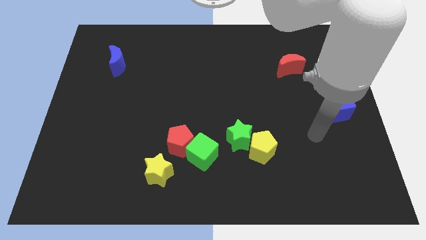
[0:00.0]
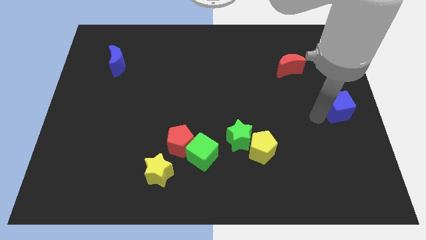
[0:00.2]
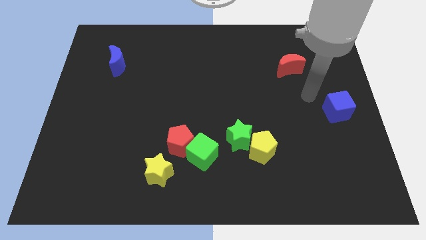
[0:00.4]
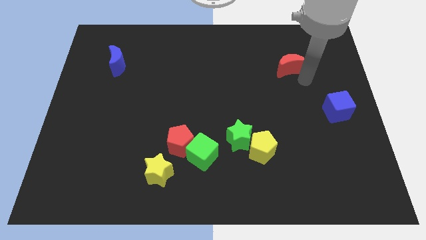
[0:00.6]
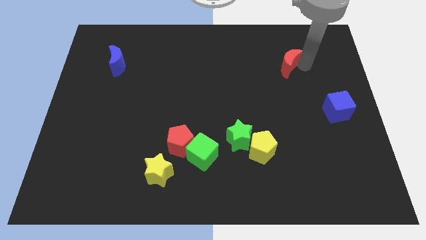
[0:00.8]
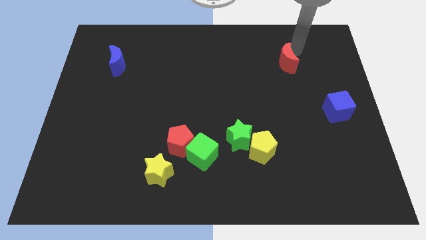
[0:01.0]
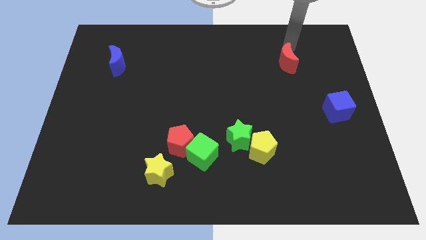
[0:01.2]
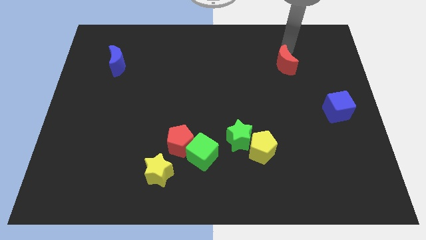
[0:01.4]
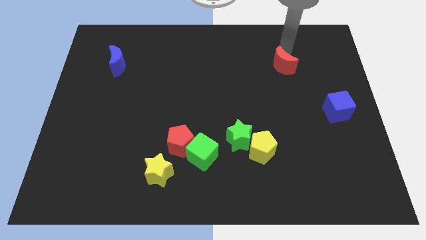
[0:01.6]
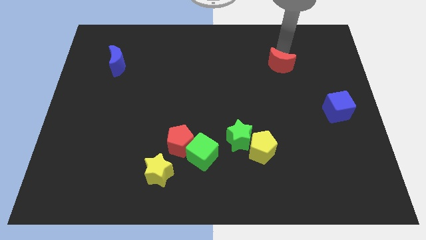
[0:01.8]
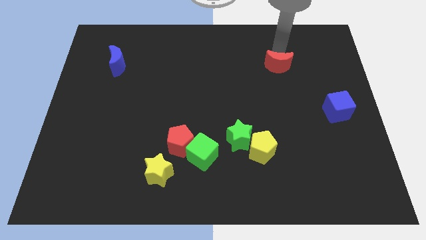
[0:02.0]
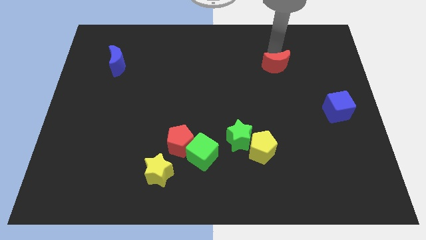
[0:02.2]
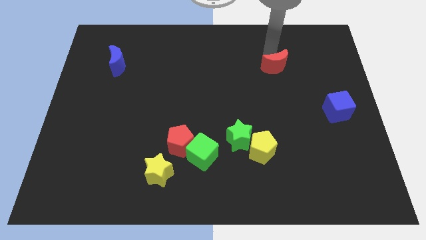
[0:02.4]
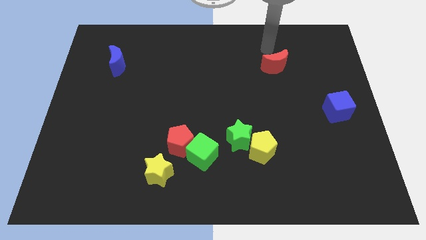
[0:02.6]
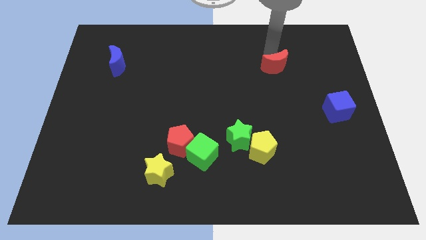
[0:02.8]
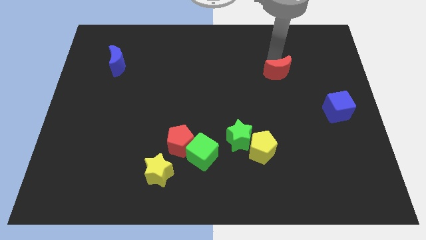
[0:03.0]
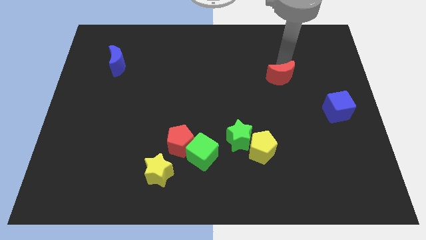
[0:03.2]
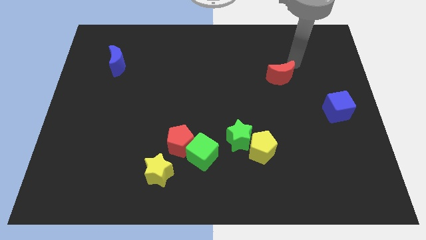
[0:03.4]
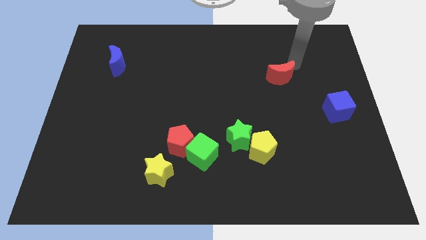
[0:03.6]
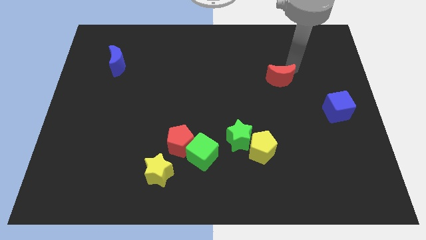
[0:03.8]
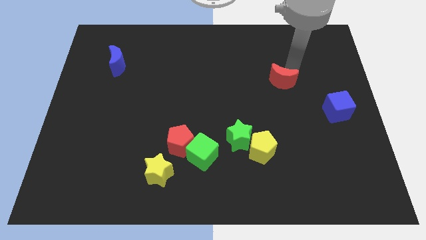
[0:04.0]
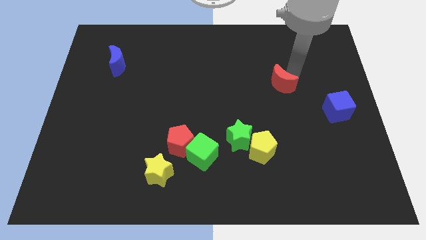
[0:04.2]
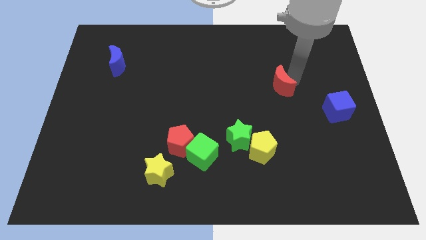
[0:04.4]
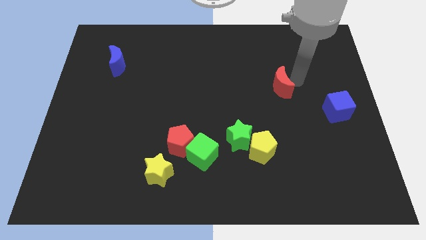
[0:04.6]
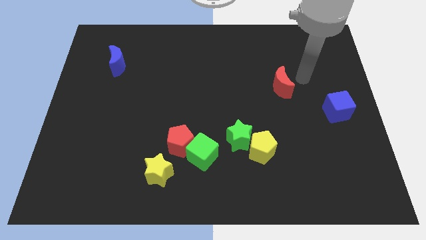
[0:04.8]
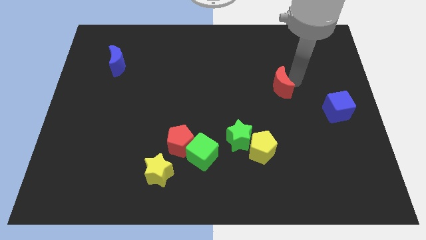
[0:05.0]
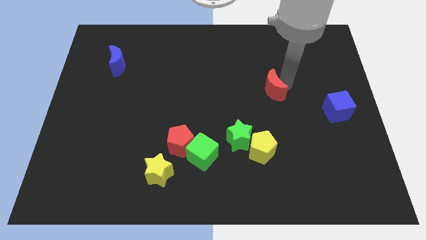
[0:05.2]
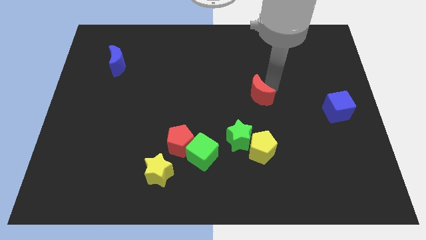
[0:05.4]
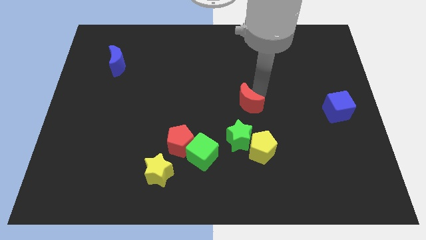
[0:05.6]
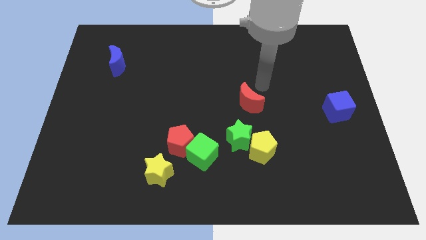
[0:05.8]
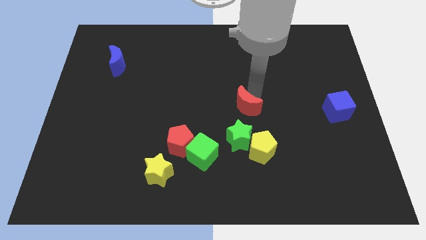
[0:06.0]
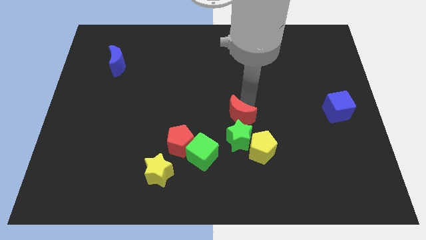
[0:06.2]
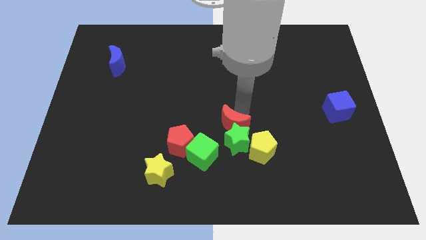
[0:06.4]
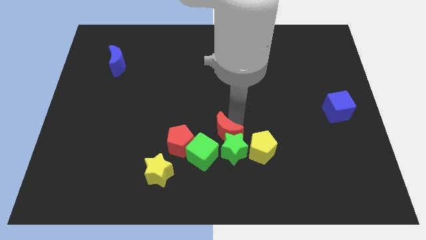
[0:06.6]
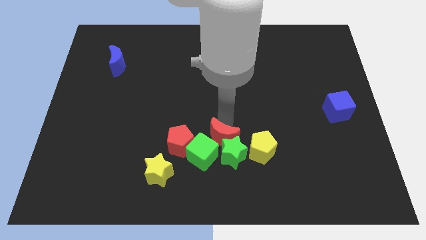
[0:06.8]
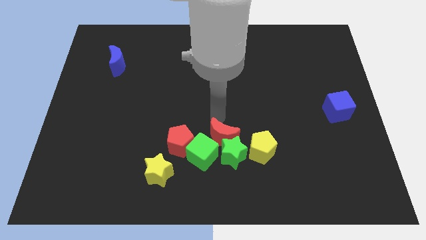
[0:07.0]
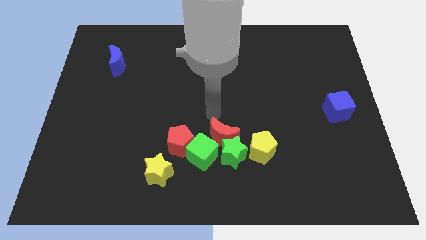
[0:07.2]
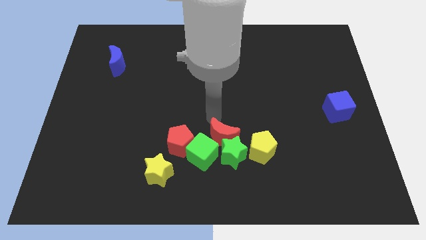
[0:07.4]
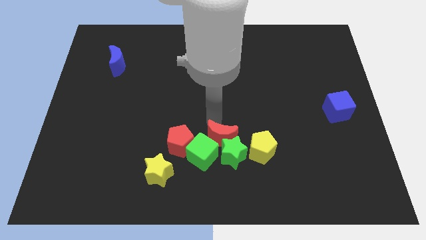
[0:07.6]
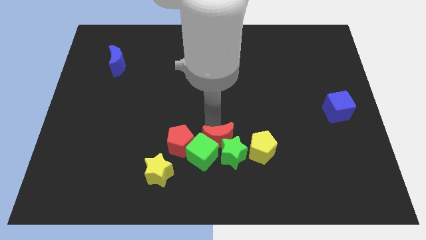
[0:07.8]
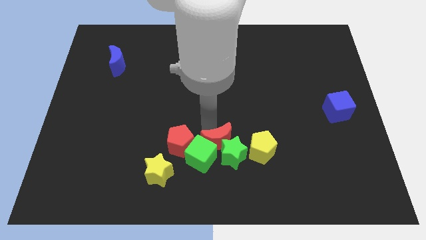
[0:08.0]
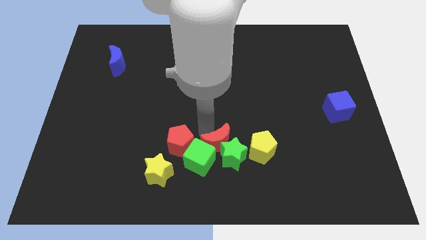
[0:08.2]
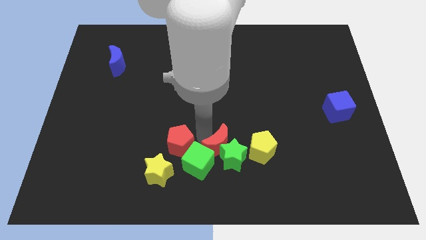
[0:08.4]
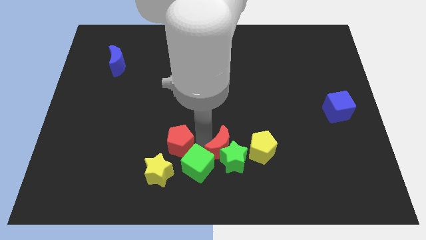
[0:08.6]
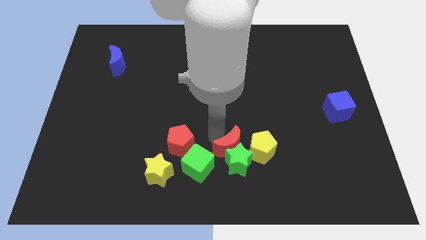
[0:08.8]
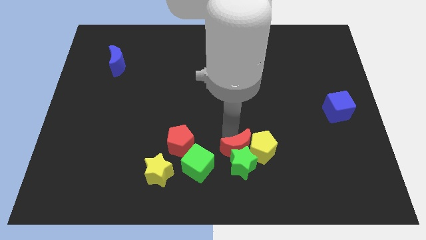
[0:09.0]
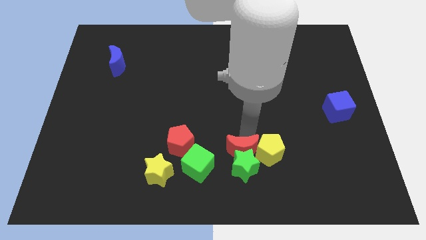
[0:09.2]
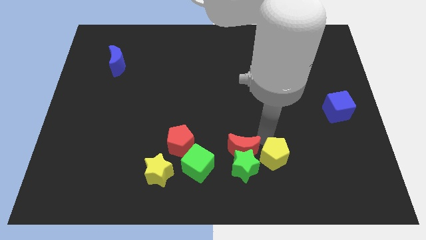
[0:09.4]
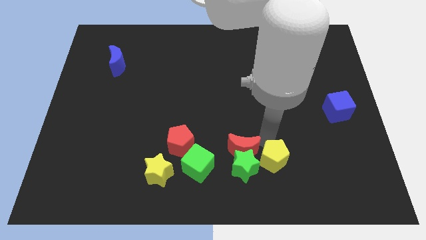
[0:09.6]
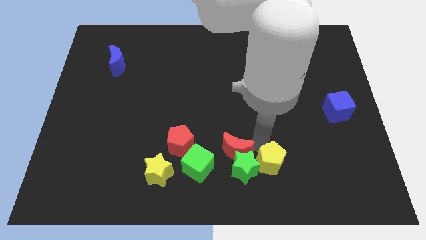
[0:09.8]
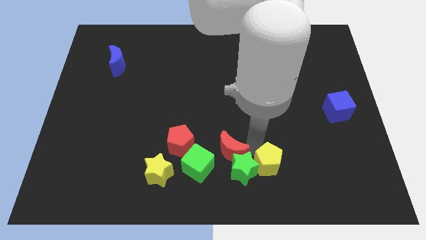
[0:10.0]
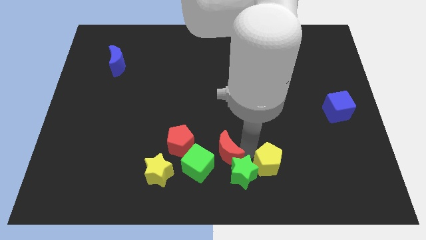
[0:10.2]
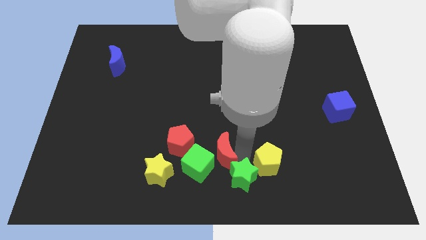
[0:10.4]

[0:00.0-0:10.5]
slide the red moon to the bottom right side of the red pentagon

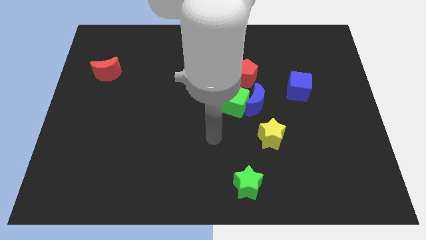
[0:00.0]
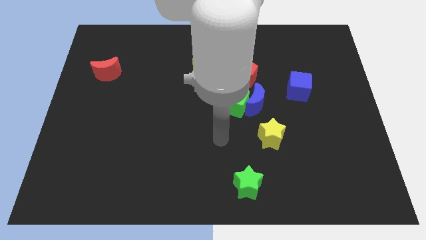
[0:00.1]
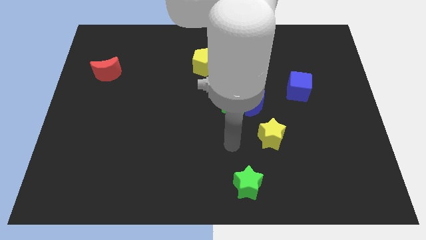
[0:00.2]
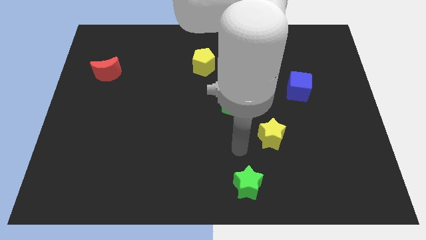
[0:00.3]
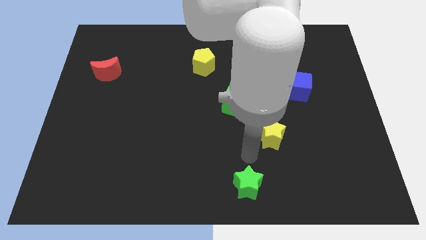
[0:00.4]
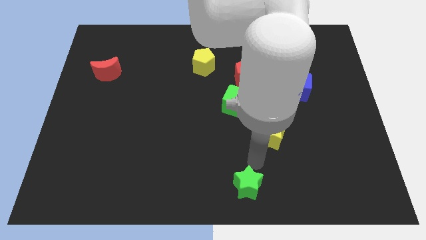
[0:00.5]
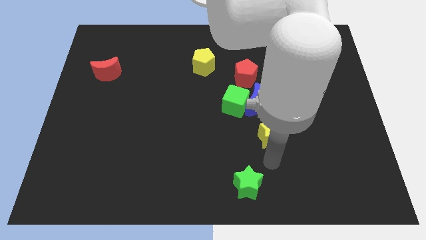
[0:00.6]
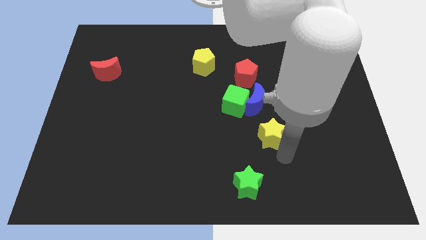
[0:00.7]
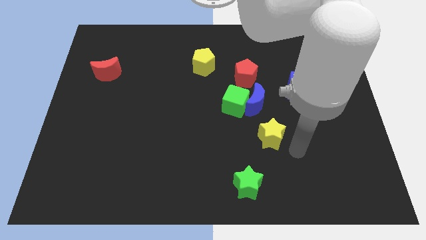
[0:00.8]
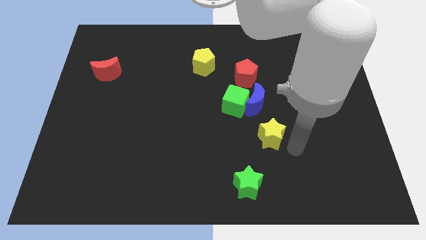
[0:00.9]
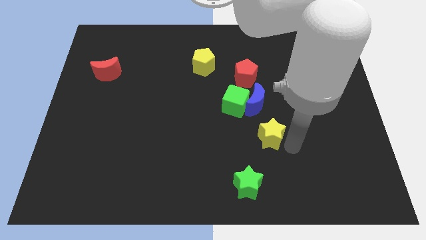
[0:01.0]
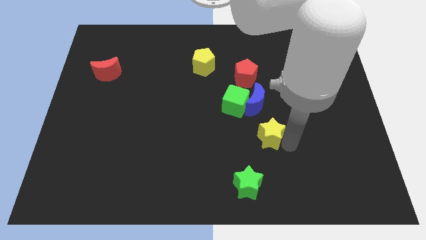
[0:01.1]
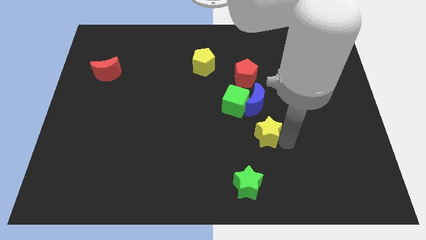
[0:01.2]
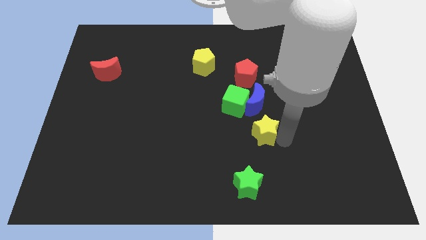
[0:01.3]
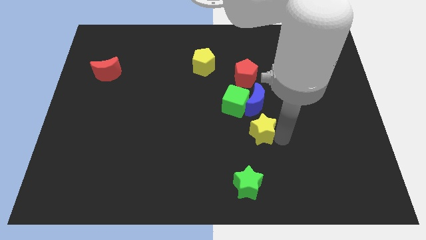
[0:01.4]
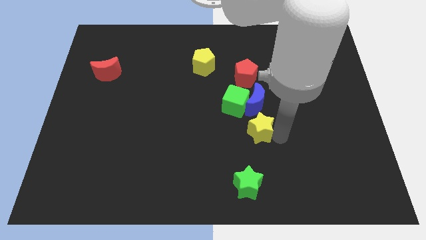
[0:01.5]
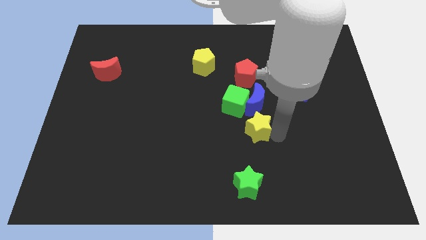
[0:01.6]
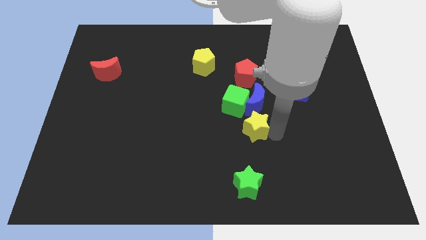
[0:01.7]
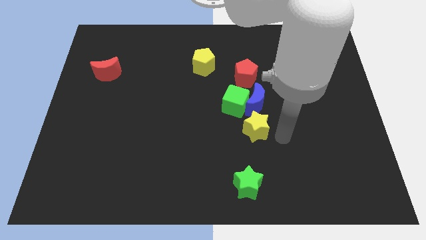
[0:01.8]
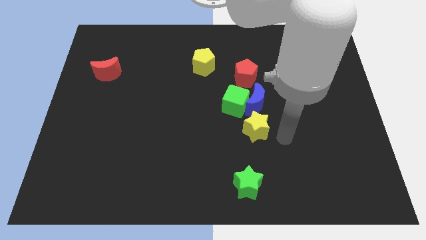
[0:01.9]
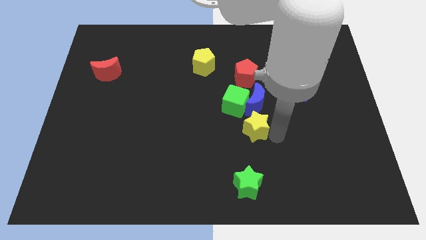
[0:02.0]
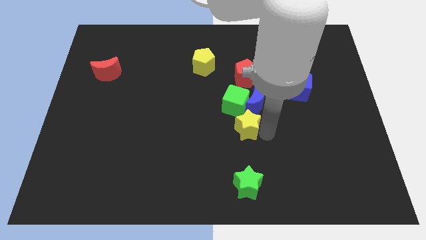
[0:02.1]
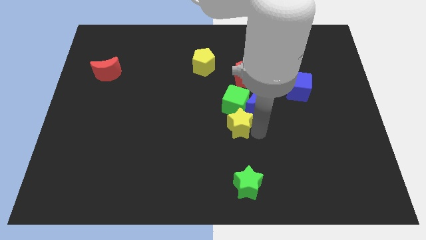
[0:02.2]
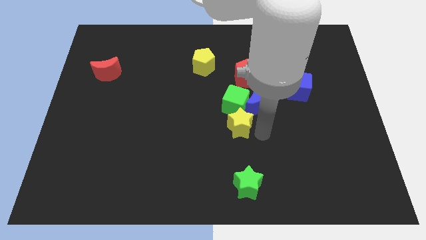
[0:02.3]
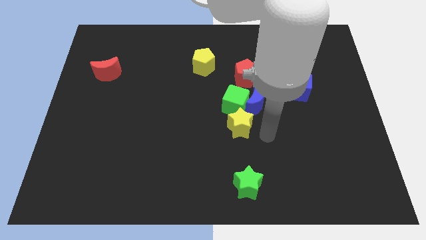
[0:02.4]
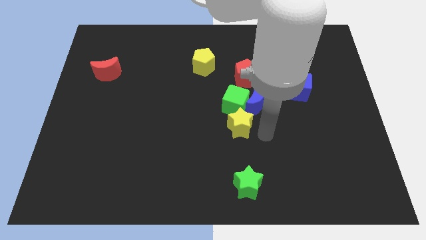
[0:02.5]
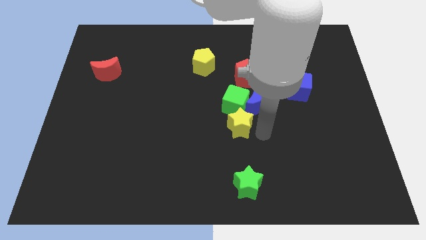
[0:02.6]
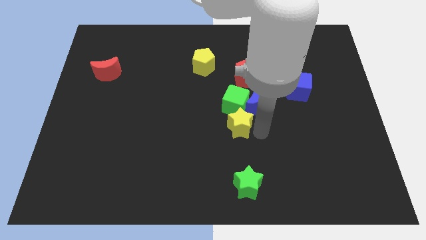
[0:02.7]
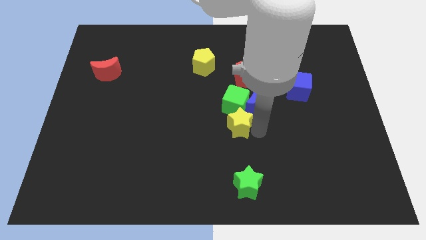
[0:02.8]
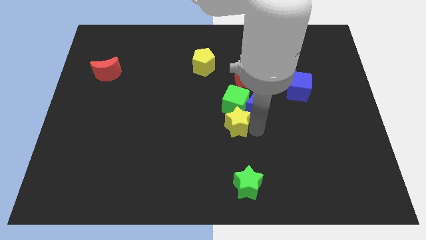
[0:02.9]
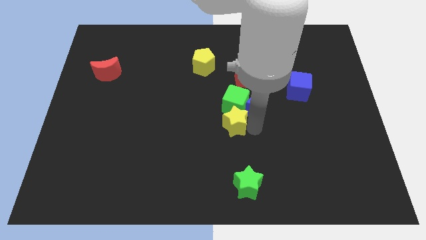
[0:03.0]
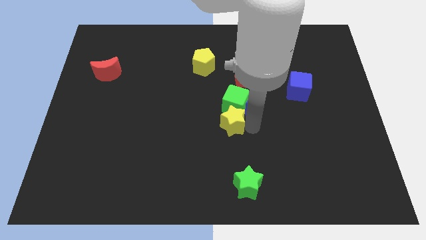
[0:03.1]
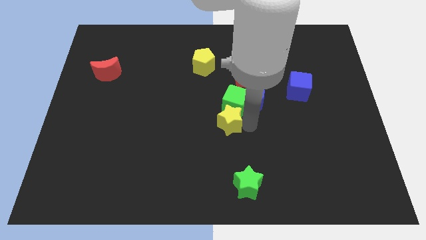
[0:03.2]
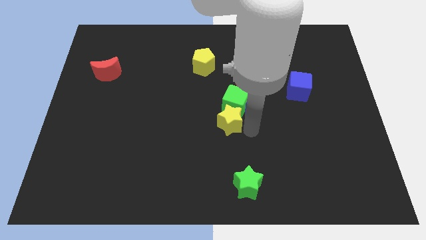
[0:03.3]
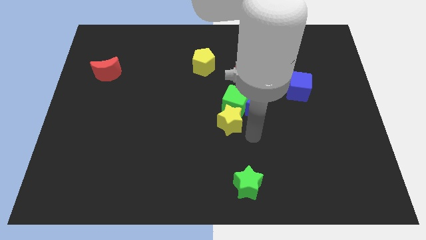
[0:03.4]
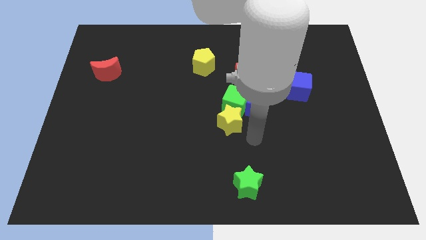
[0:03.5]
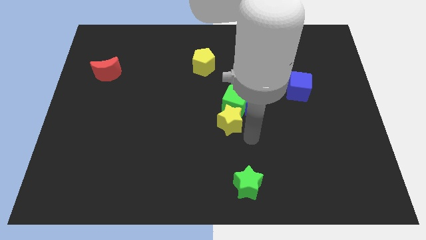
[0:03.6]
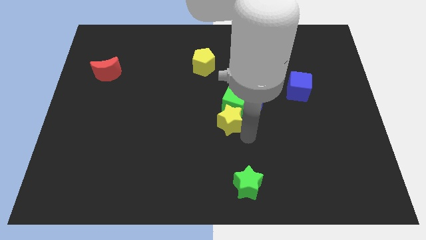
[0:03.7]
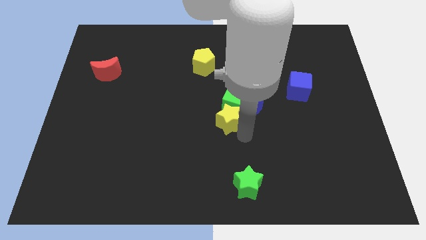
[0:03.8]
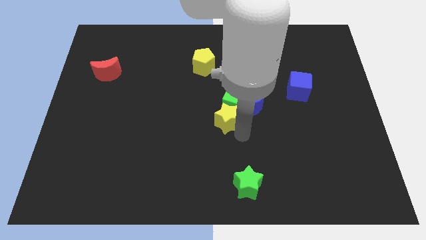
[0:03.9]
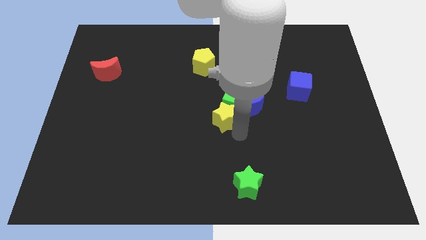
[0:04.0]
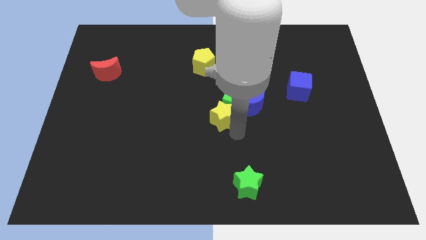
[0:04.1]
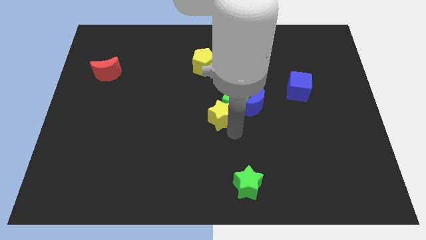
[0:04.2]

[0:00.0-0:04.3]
slide the yellow star just left of the green cube
